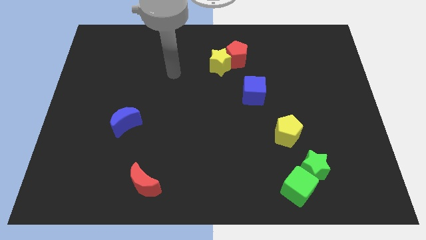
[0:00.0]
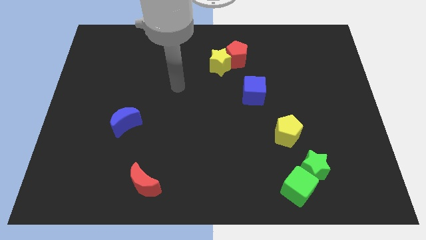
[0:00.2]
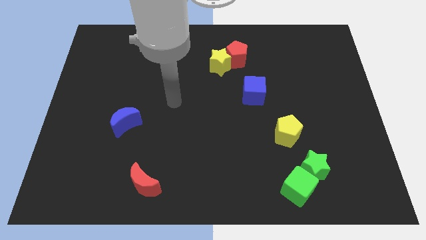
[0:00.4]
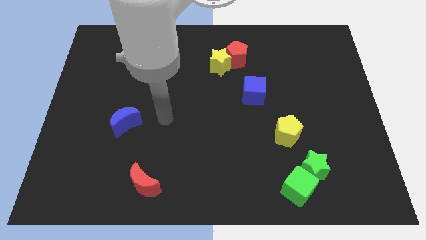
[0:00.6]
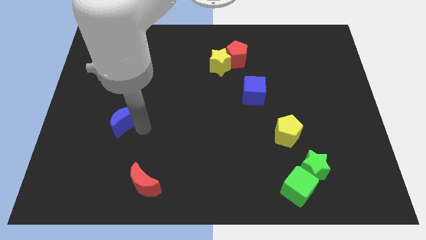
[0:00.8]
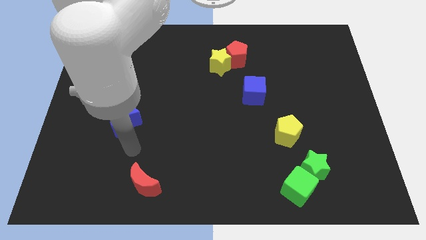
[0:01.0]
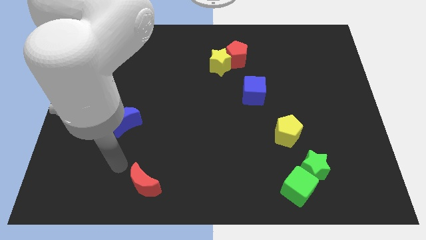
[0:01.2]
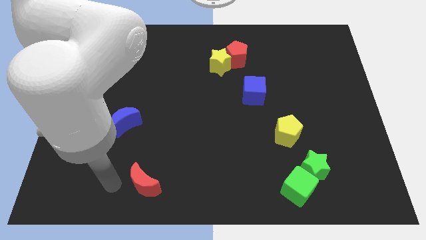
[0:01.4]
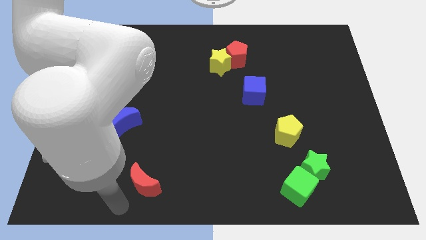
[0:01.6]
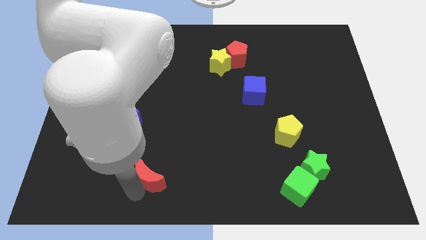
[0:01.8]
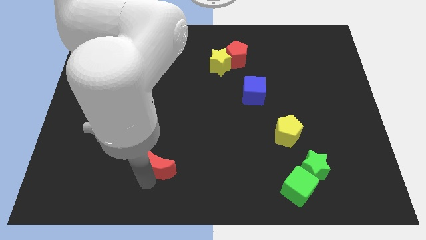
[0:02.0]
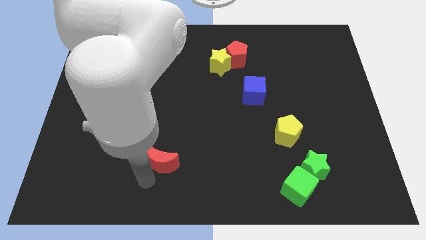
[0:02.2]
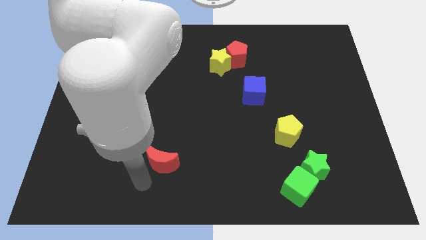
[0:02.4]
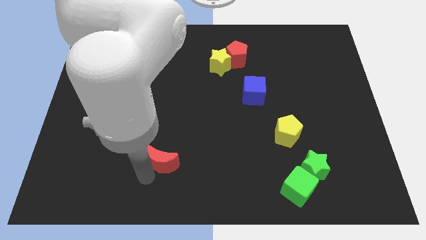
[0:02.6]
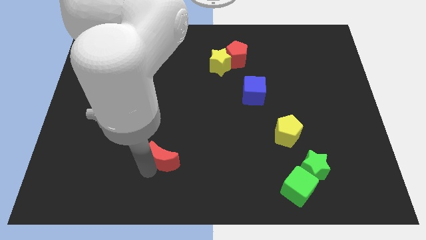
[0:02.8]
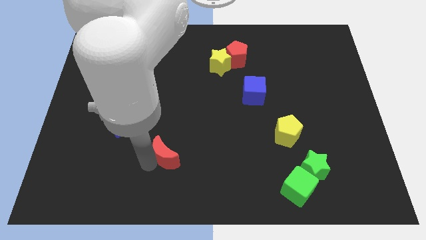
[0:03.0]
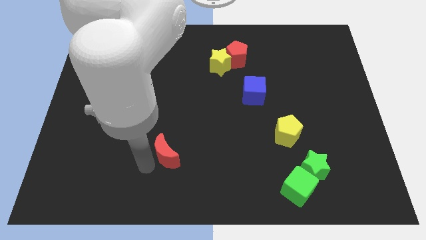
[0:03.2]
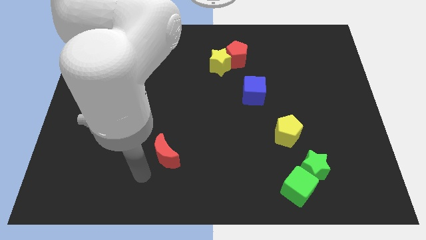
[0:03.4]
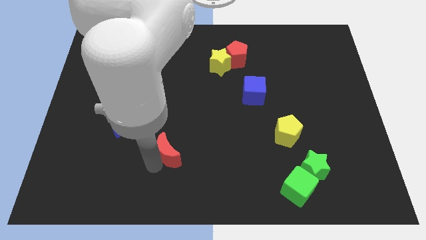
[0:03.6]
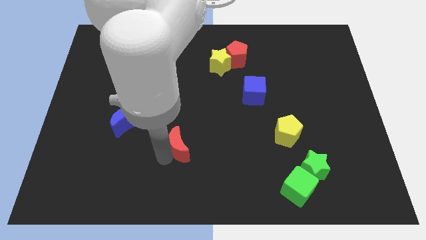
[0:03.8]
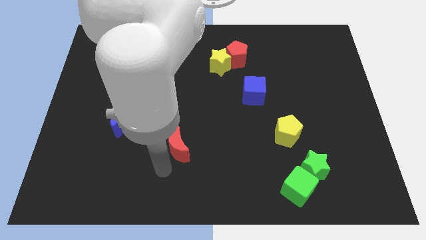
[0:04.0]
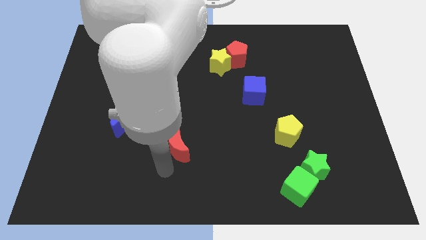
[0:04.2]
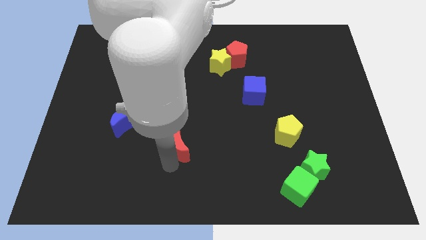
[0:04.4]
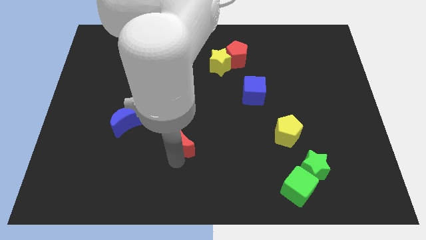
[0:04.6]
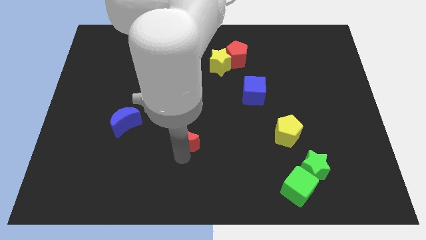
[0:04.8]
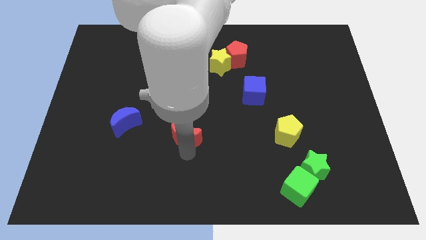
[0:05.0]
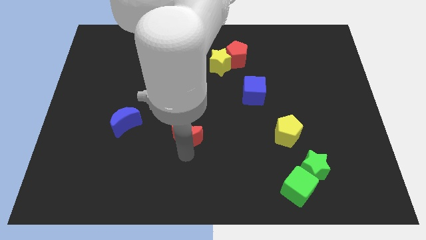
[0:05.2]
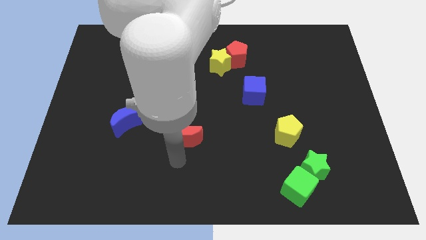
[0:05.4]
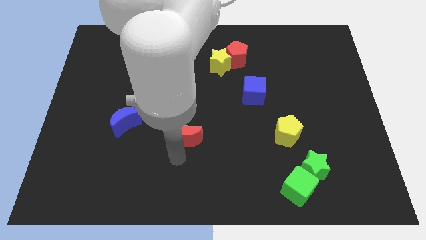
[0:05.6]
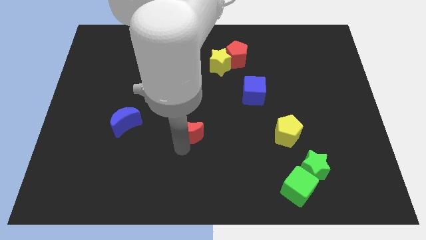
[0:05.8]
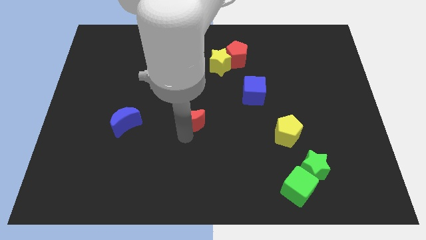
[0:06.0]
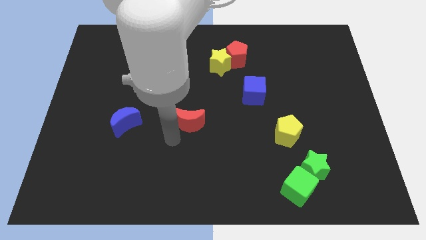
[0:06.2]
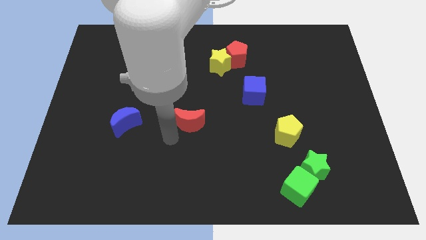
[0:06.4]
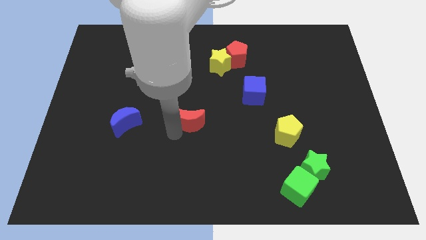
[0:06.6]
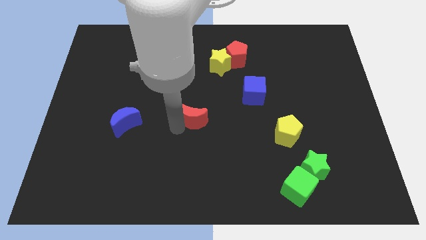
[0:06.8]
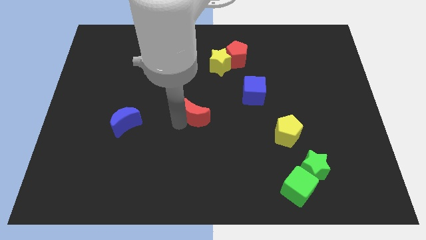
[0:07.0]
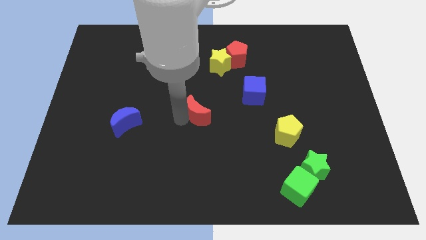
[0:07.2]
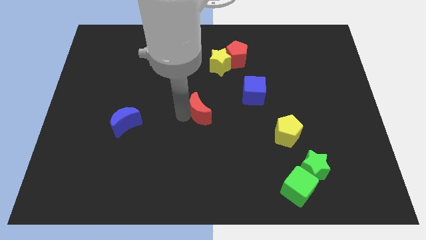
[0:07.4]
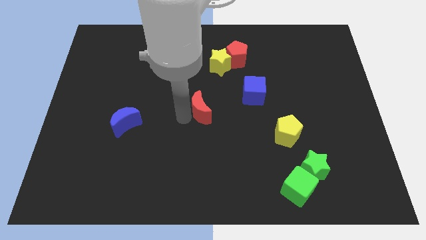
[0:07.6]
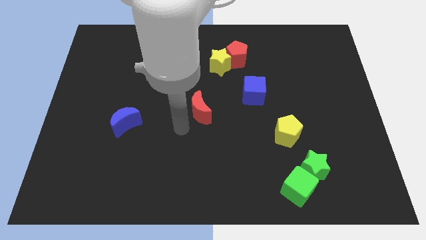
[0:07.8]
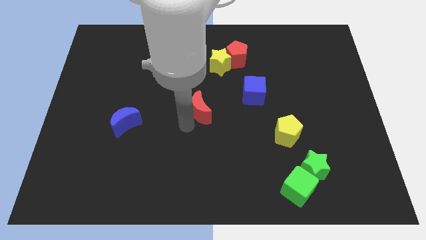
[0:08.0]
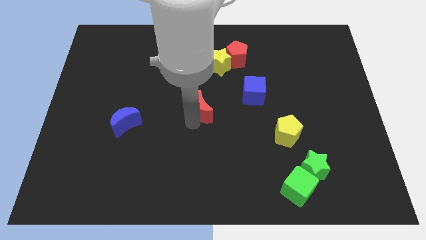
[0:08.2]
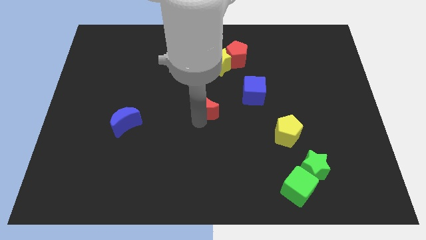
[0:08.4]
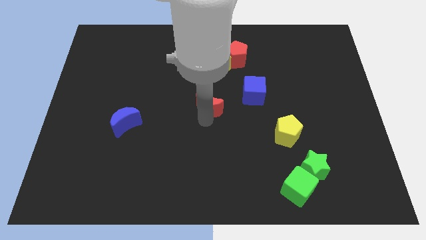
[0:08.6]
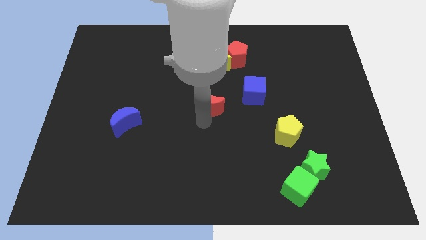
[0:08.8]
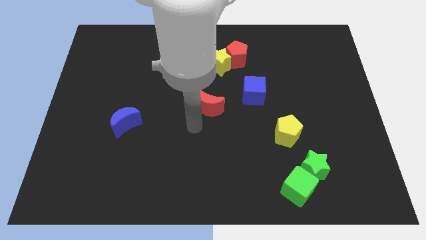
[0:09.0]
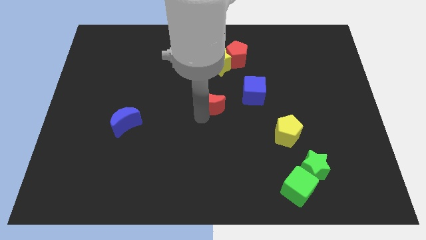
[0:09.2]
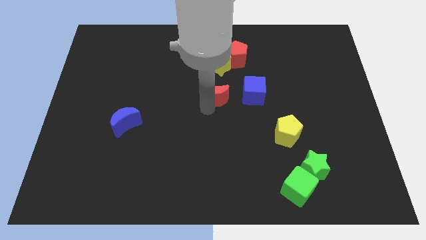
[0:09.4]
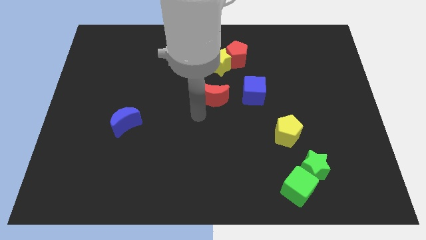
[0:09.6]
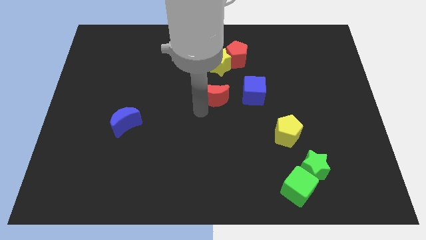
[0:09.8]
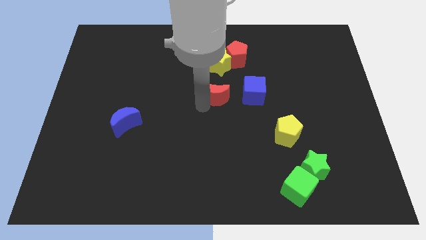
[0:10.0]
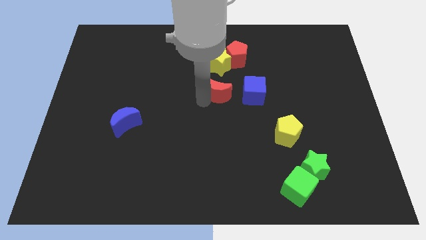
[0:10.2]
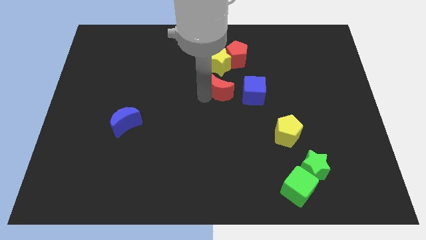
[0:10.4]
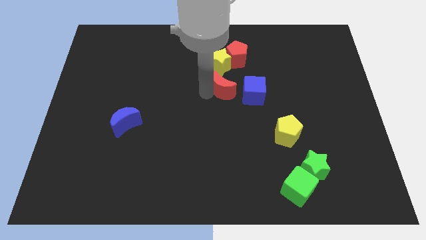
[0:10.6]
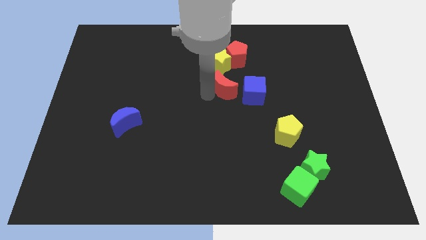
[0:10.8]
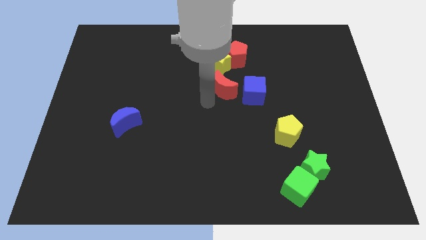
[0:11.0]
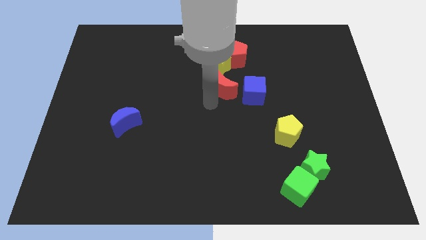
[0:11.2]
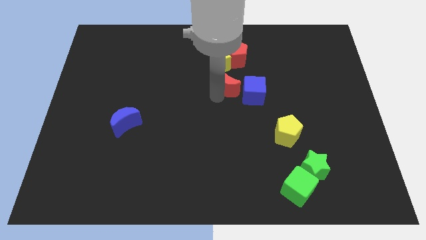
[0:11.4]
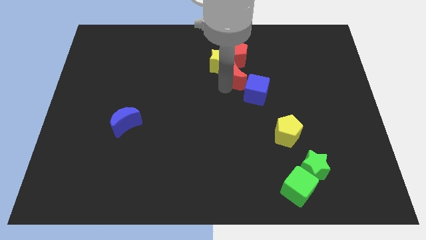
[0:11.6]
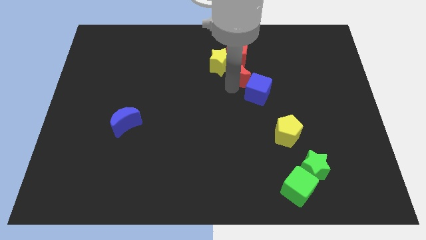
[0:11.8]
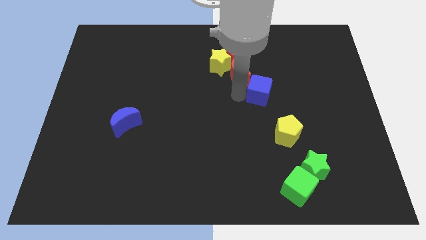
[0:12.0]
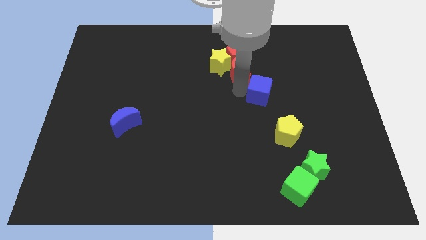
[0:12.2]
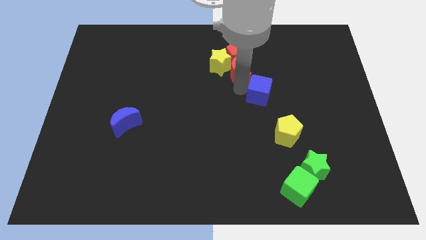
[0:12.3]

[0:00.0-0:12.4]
put the red moon towards the red pentagon
